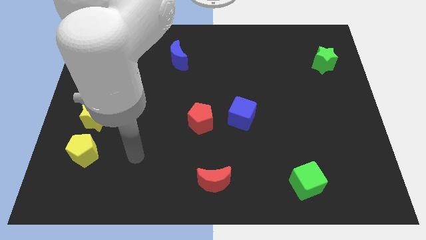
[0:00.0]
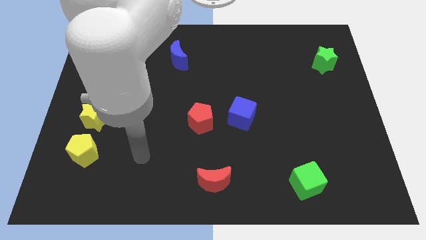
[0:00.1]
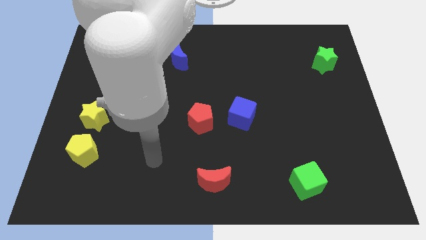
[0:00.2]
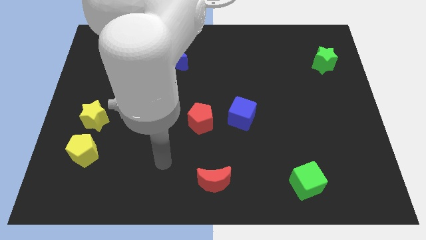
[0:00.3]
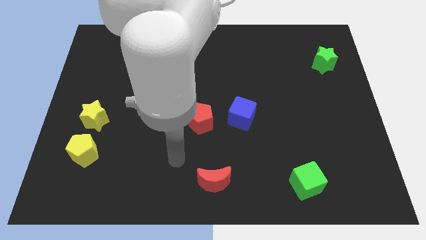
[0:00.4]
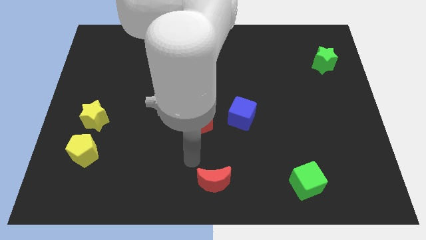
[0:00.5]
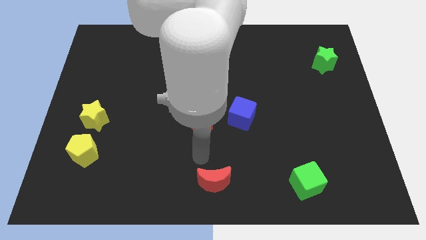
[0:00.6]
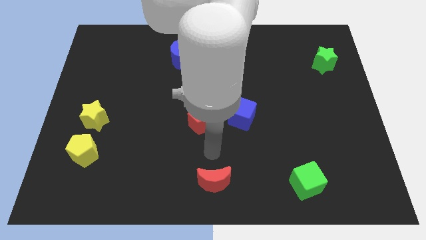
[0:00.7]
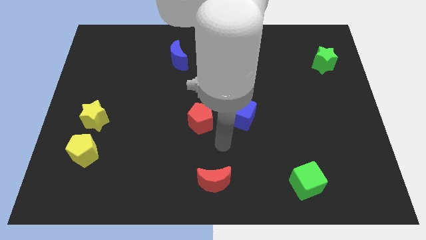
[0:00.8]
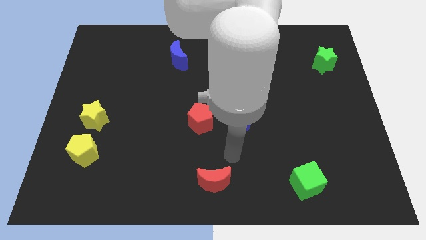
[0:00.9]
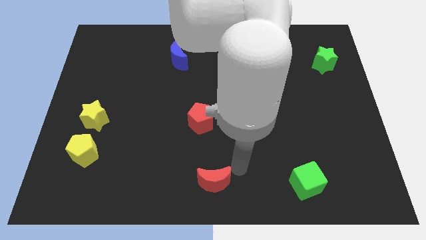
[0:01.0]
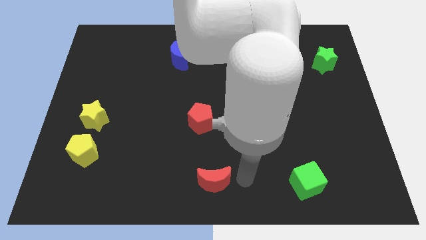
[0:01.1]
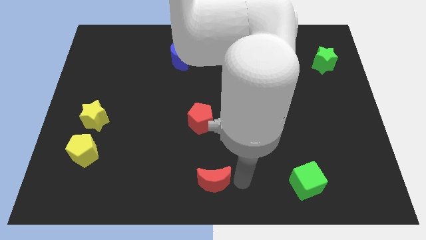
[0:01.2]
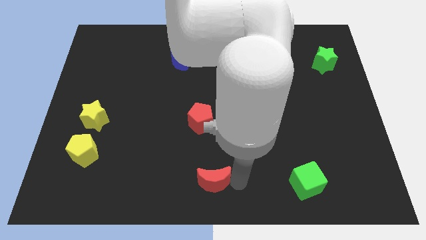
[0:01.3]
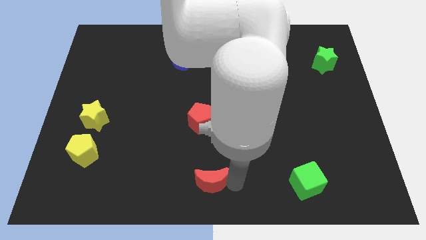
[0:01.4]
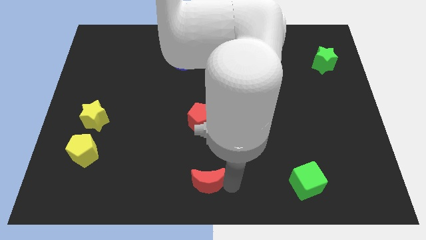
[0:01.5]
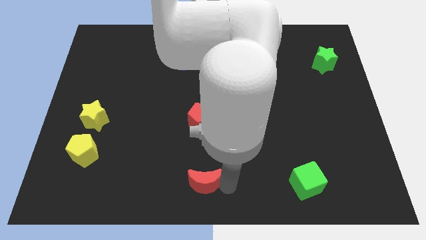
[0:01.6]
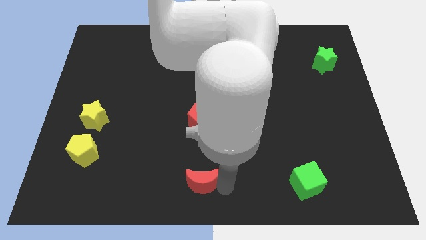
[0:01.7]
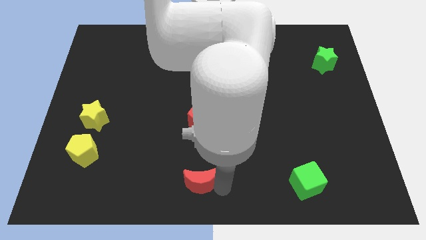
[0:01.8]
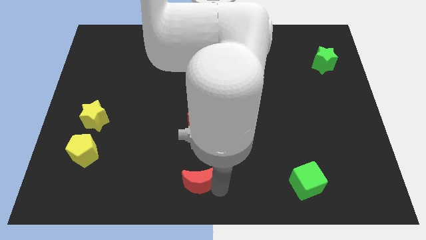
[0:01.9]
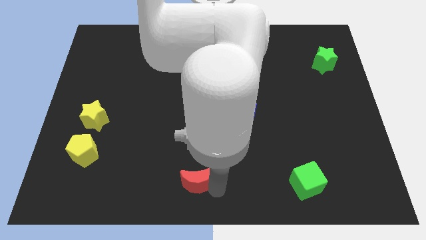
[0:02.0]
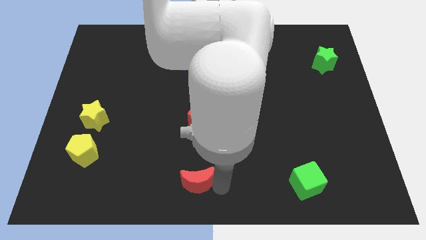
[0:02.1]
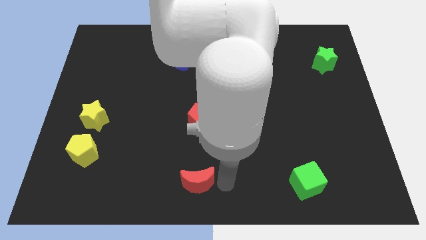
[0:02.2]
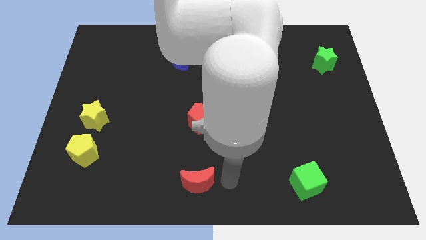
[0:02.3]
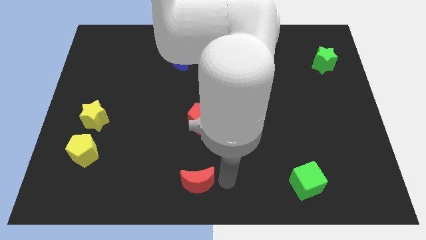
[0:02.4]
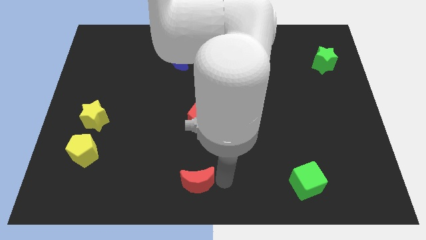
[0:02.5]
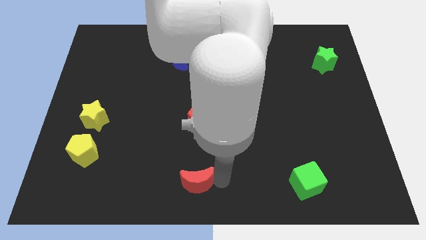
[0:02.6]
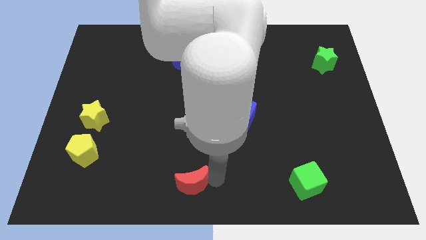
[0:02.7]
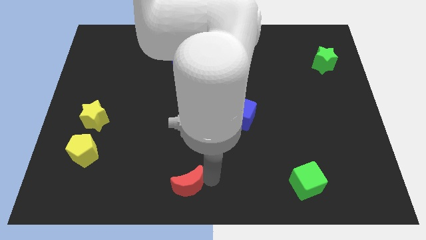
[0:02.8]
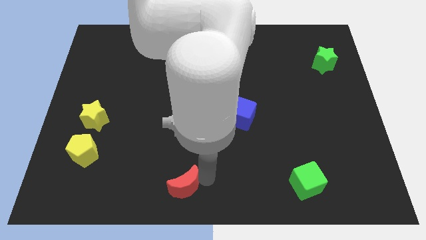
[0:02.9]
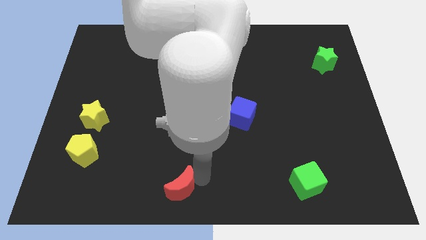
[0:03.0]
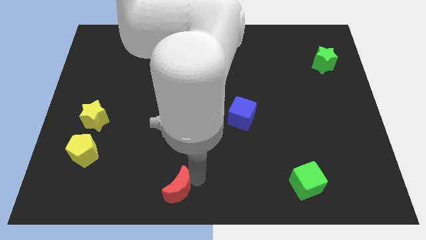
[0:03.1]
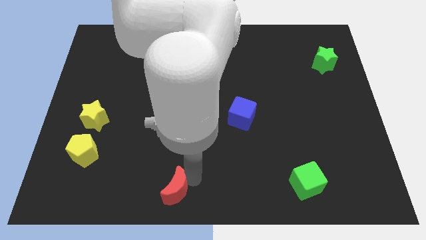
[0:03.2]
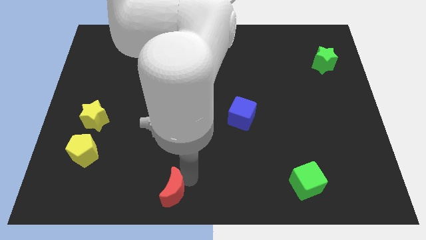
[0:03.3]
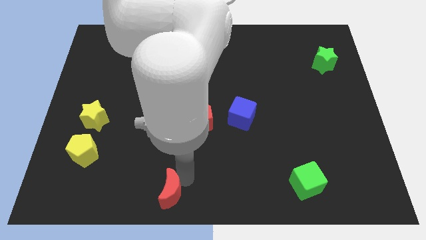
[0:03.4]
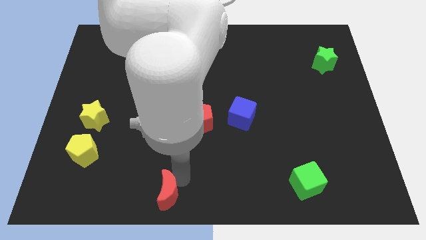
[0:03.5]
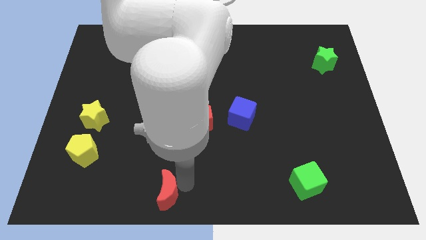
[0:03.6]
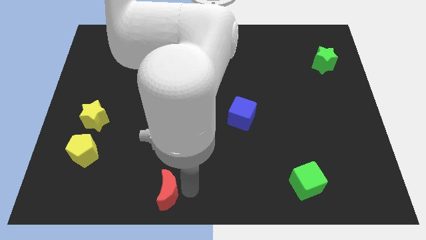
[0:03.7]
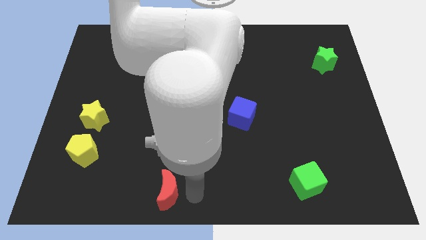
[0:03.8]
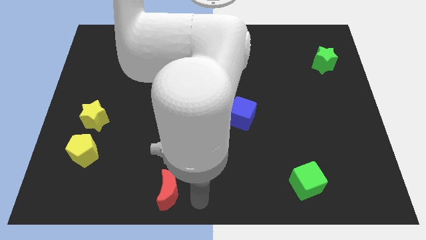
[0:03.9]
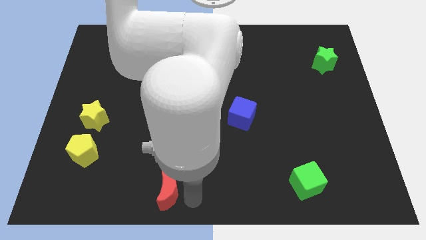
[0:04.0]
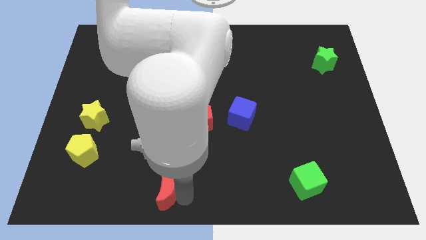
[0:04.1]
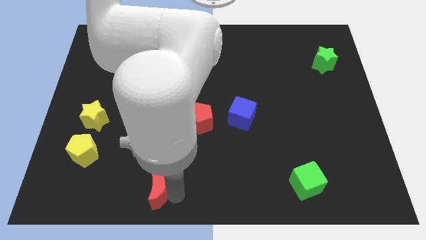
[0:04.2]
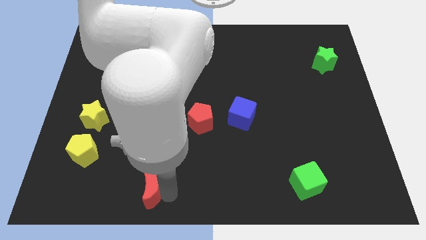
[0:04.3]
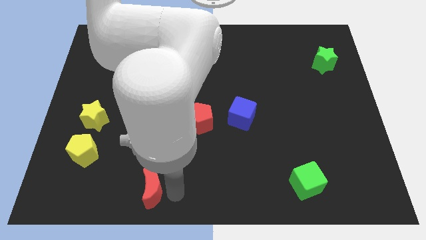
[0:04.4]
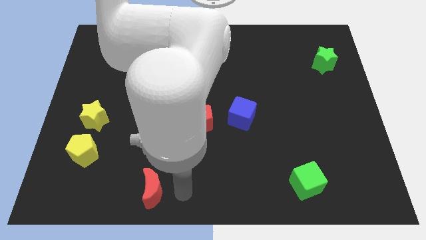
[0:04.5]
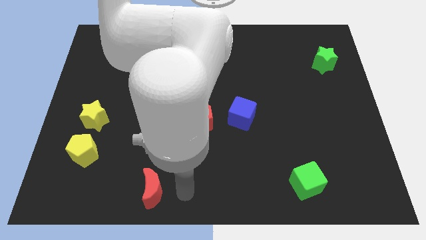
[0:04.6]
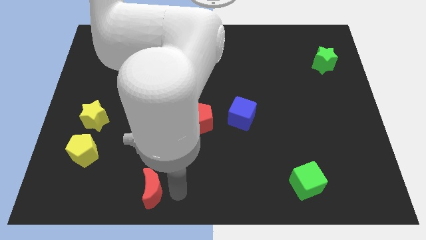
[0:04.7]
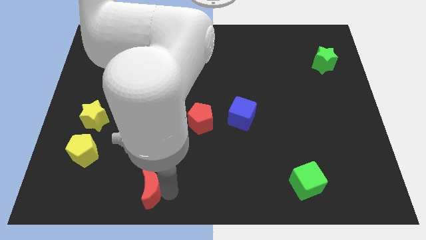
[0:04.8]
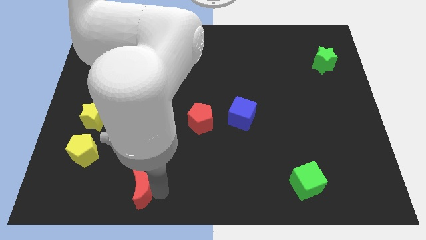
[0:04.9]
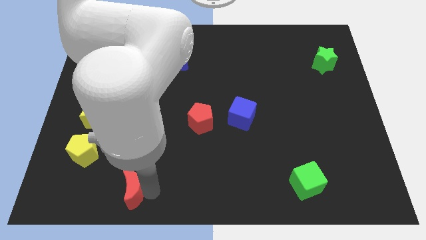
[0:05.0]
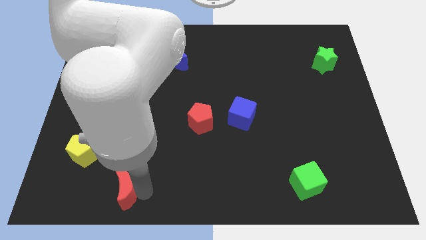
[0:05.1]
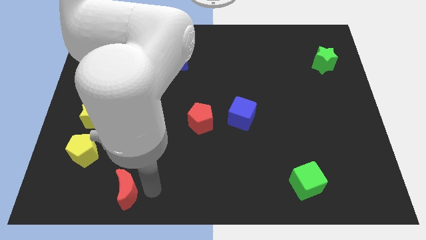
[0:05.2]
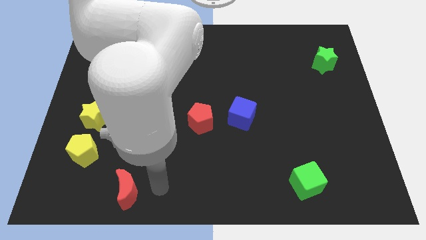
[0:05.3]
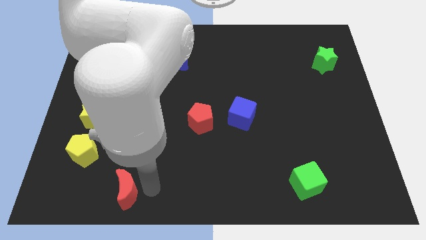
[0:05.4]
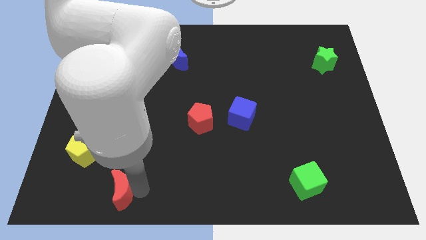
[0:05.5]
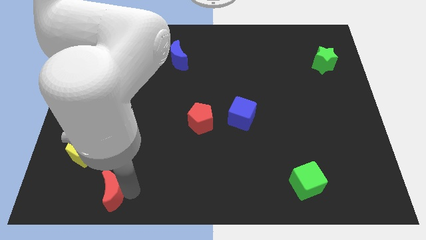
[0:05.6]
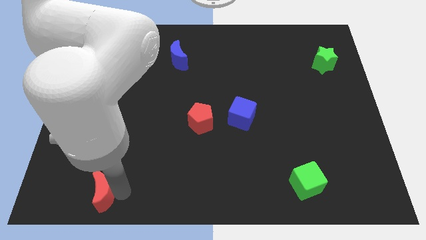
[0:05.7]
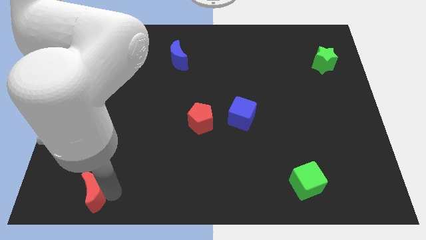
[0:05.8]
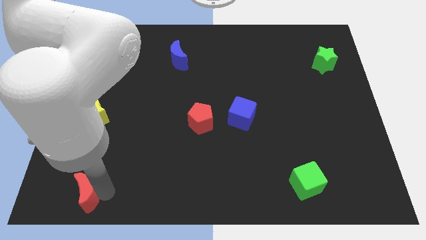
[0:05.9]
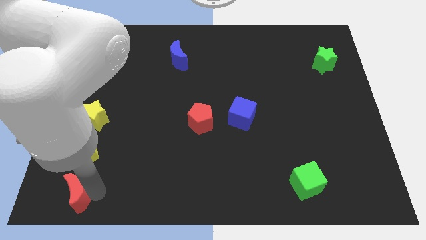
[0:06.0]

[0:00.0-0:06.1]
put the red moon to the bottom left
